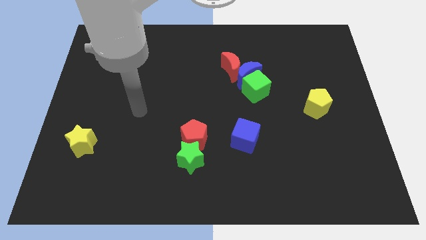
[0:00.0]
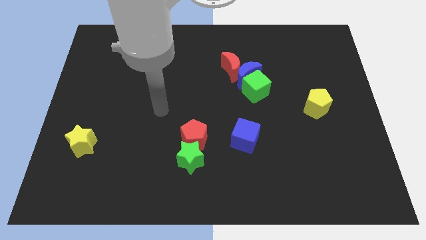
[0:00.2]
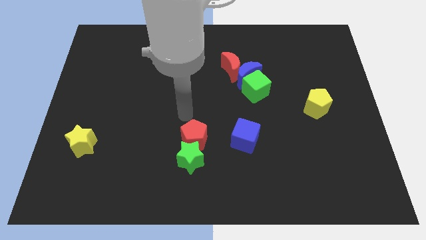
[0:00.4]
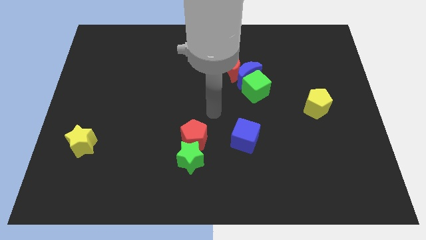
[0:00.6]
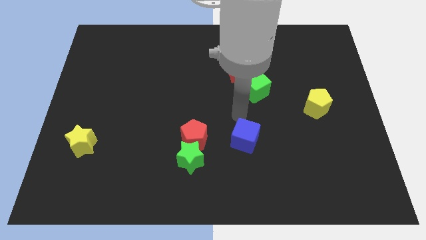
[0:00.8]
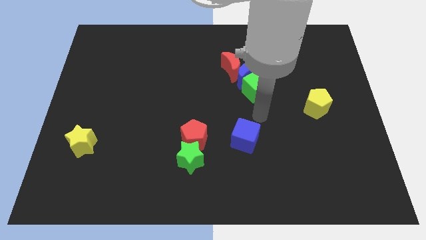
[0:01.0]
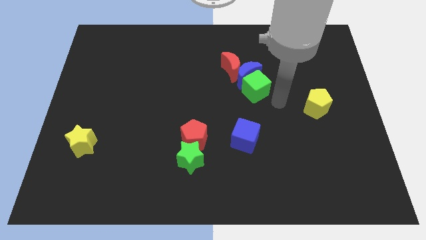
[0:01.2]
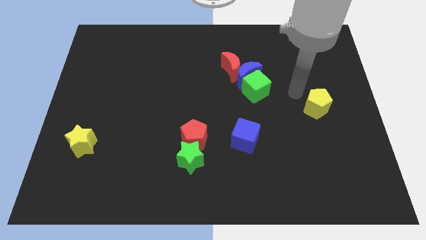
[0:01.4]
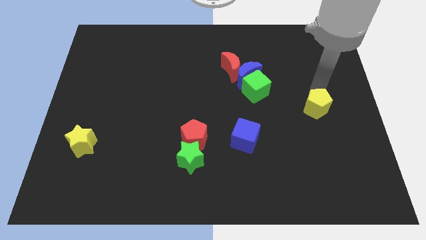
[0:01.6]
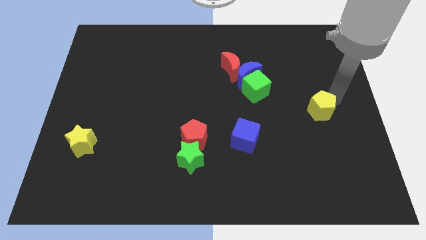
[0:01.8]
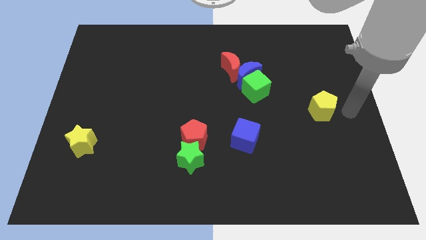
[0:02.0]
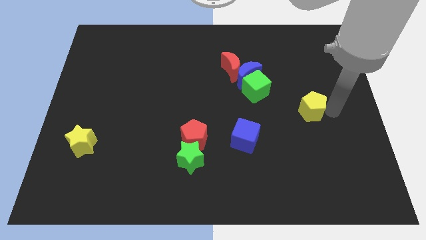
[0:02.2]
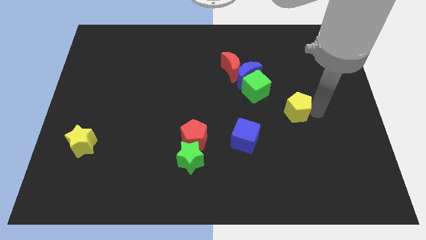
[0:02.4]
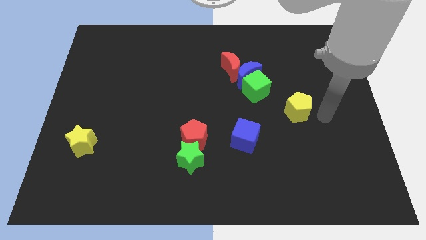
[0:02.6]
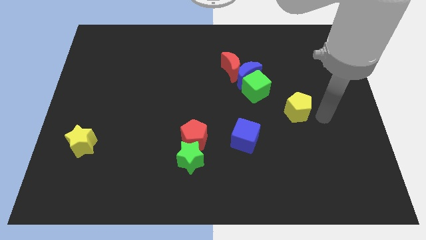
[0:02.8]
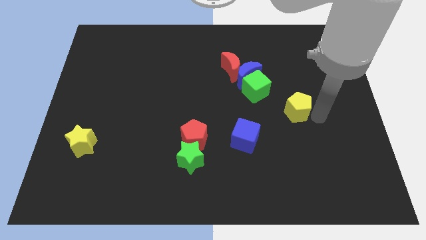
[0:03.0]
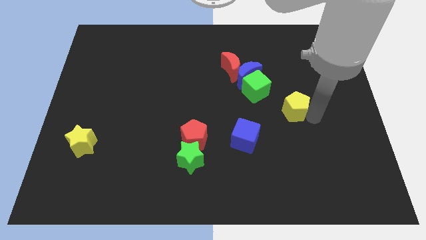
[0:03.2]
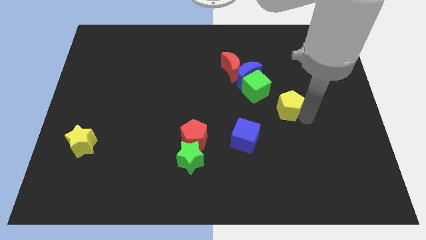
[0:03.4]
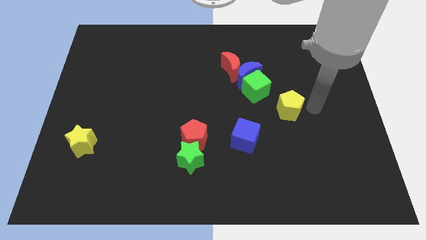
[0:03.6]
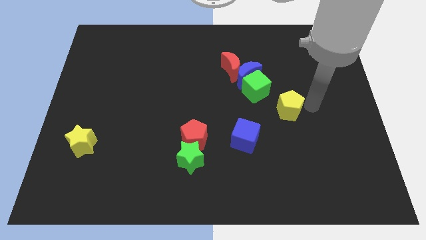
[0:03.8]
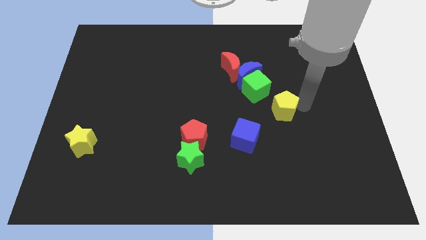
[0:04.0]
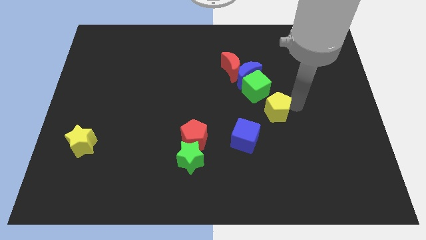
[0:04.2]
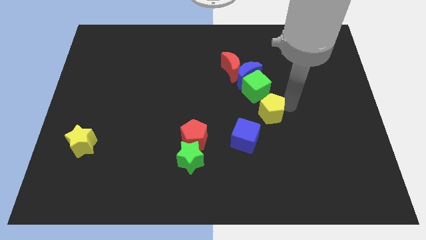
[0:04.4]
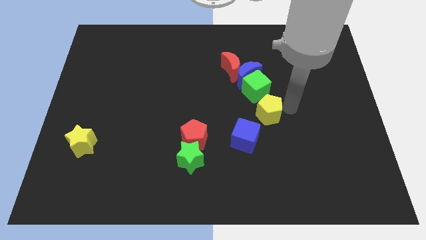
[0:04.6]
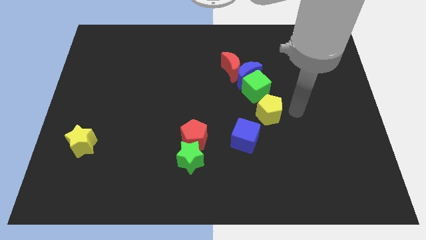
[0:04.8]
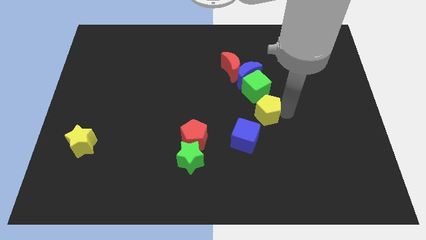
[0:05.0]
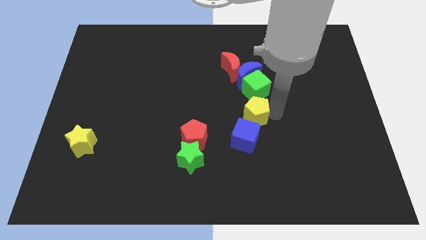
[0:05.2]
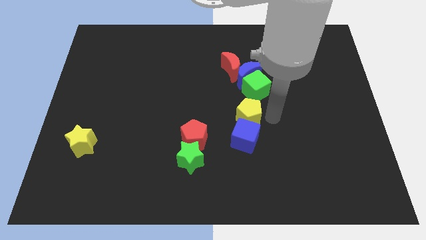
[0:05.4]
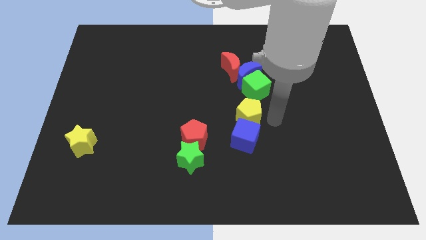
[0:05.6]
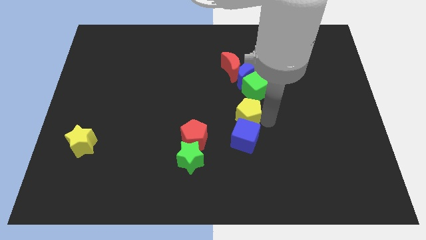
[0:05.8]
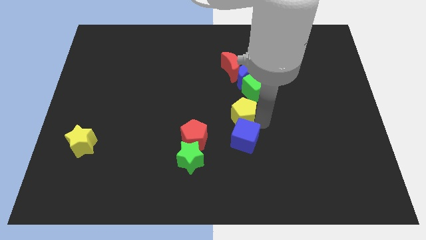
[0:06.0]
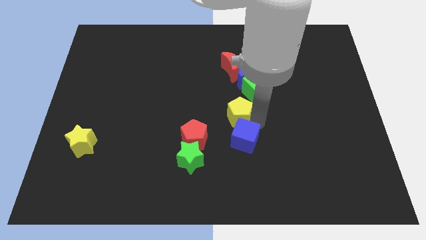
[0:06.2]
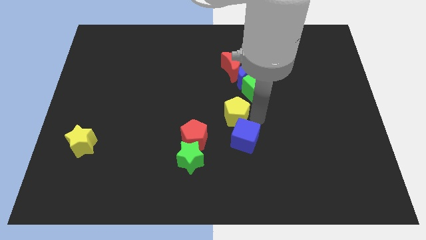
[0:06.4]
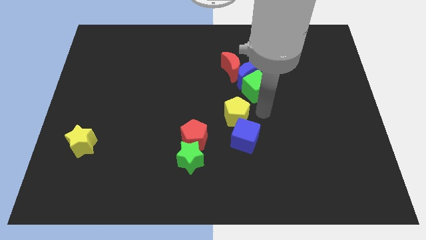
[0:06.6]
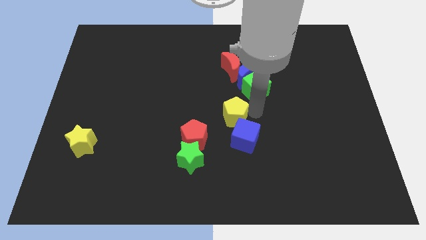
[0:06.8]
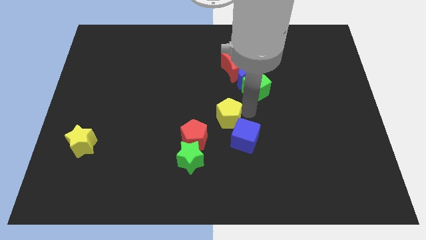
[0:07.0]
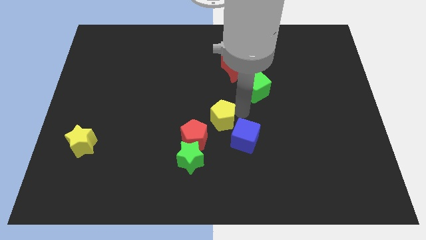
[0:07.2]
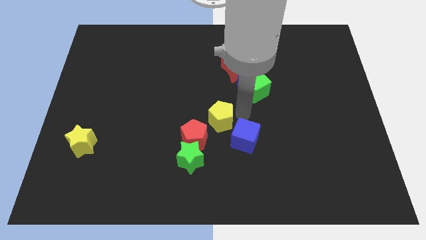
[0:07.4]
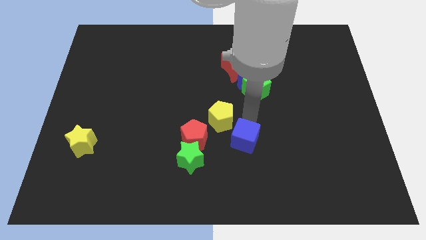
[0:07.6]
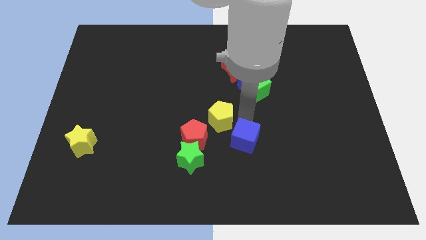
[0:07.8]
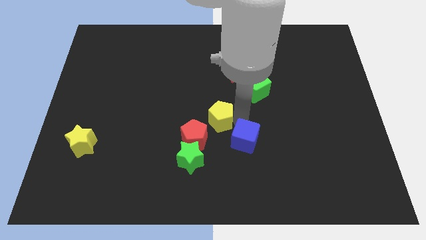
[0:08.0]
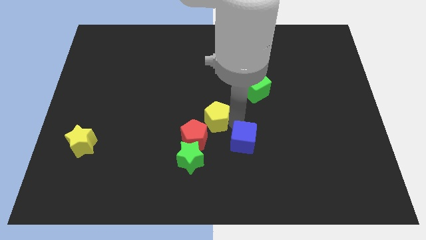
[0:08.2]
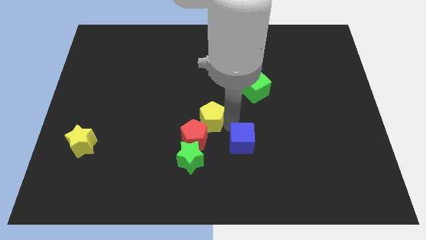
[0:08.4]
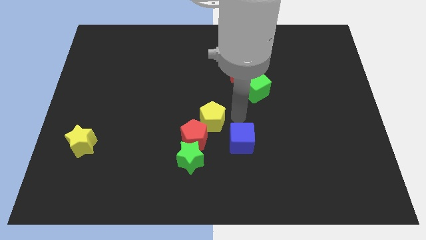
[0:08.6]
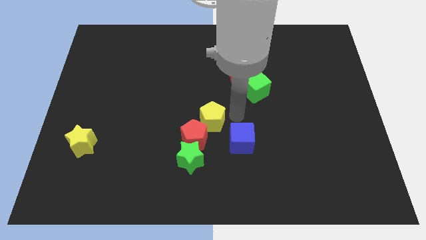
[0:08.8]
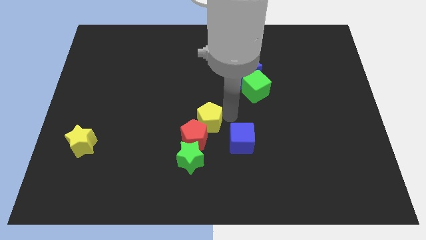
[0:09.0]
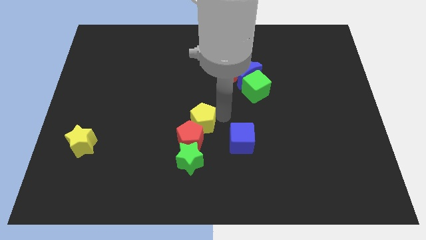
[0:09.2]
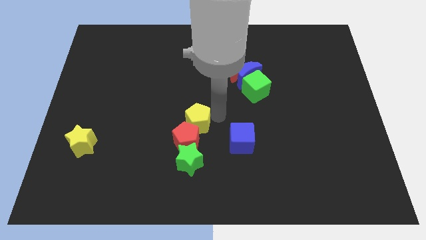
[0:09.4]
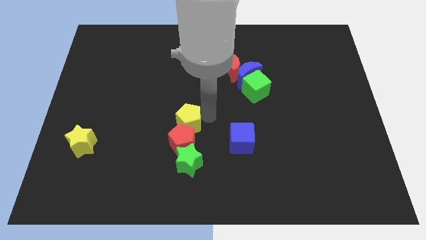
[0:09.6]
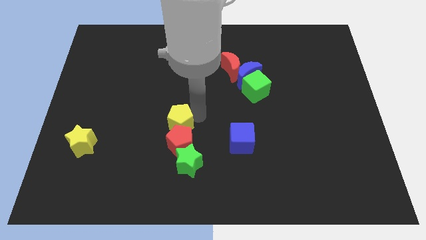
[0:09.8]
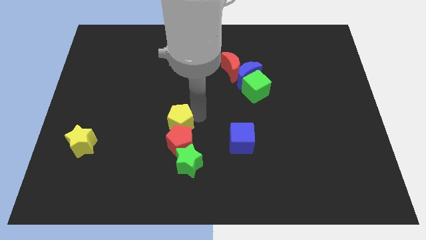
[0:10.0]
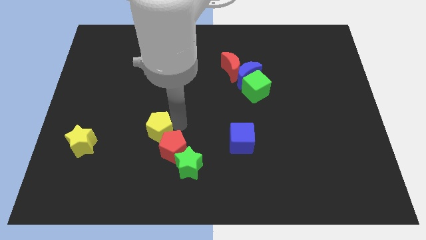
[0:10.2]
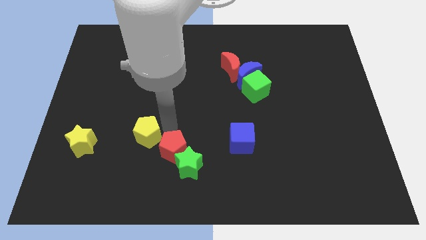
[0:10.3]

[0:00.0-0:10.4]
slide the yellow pentagon to the left side of the red pentagon

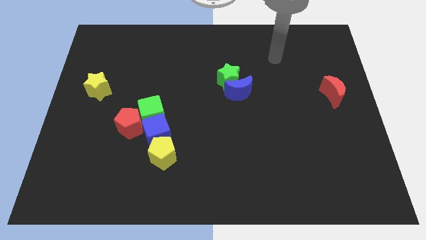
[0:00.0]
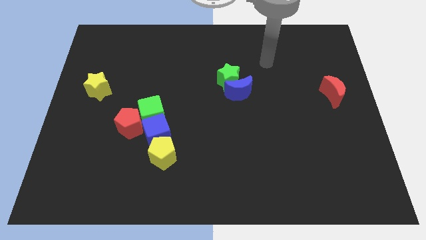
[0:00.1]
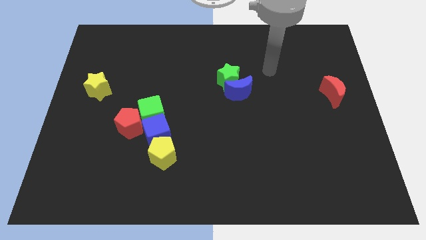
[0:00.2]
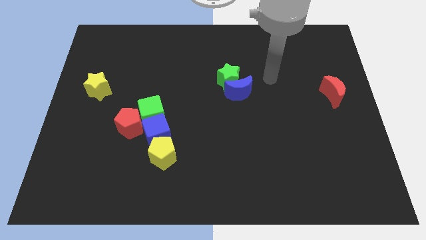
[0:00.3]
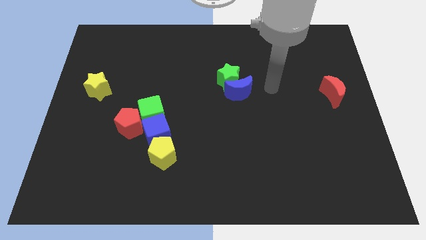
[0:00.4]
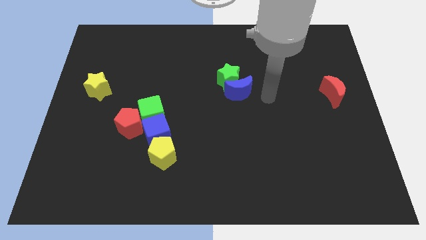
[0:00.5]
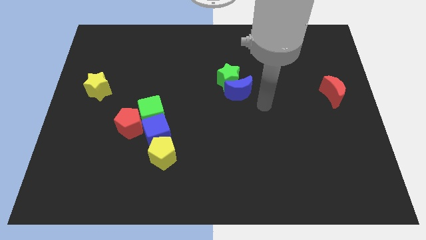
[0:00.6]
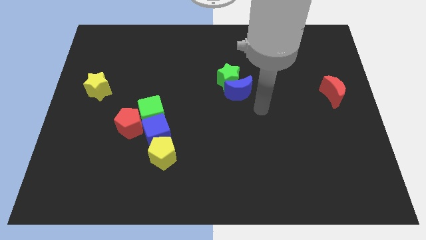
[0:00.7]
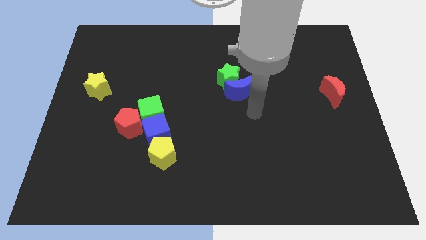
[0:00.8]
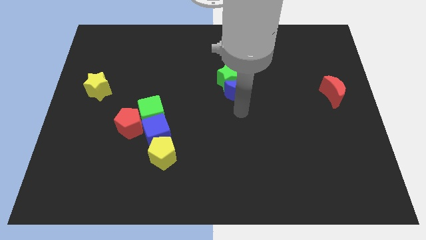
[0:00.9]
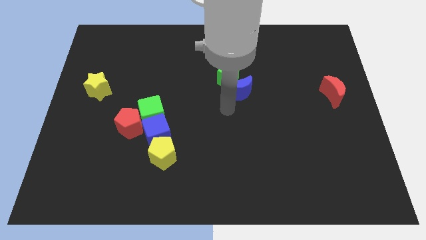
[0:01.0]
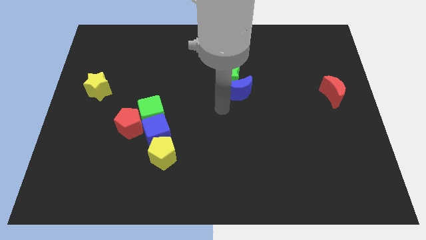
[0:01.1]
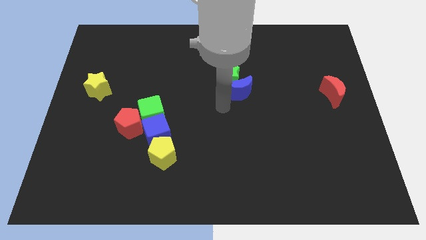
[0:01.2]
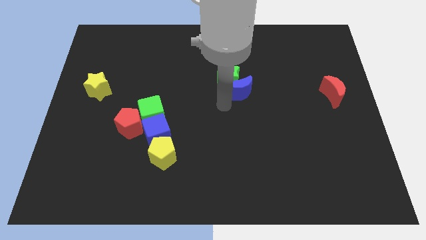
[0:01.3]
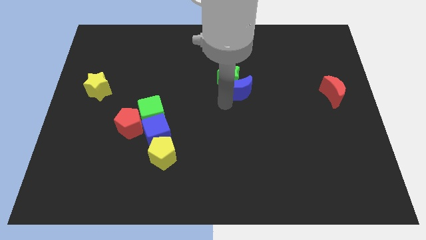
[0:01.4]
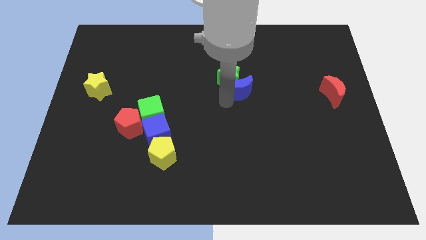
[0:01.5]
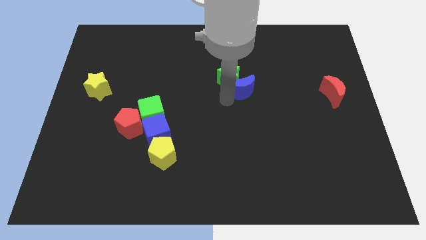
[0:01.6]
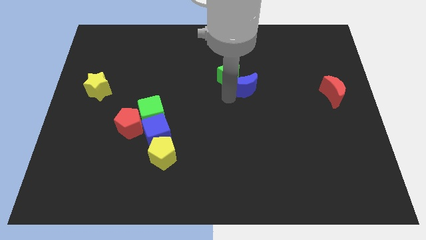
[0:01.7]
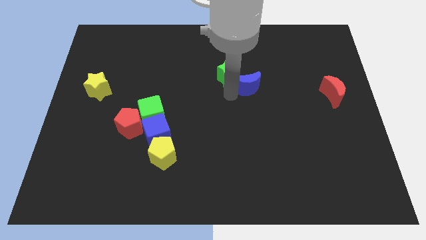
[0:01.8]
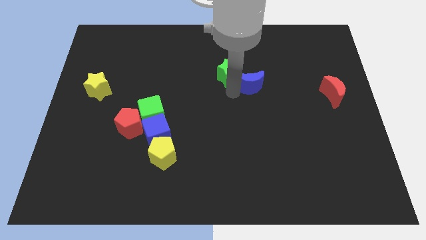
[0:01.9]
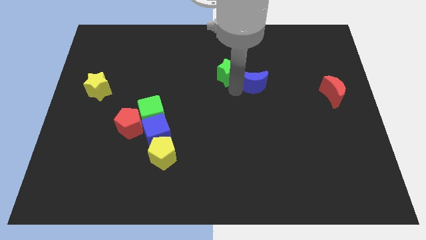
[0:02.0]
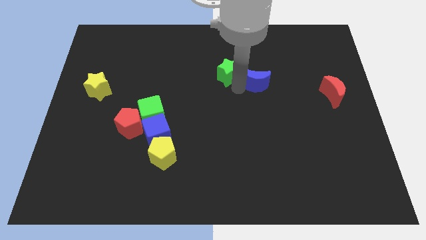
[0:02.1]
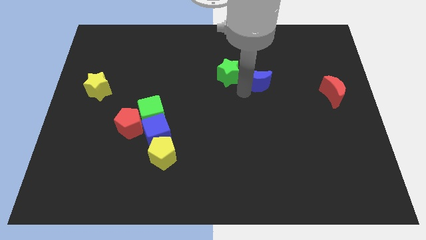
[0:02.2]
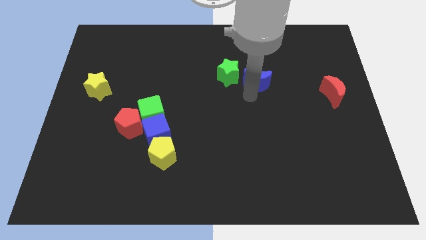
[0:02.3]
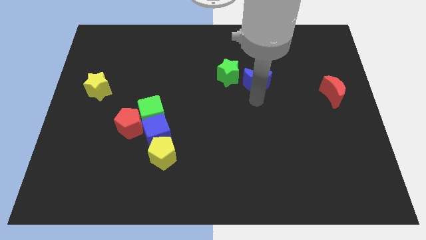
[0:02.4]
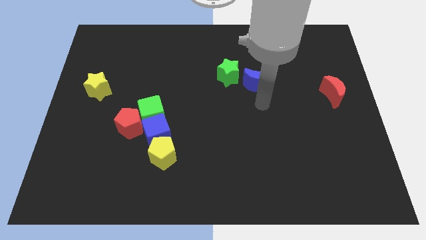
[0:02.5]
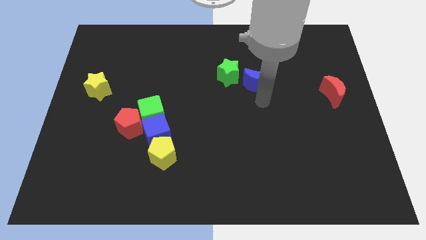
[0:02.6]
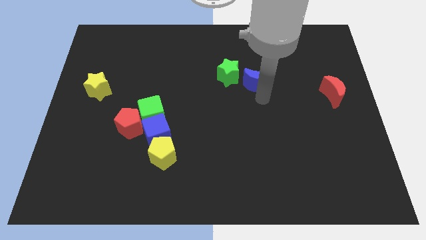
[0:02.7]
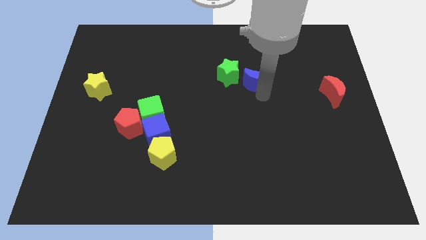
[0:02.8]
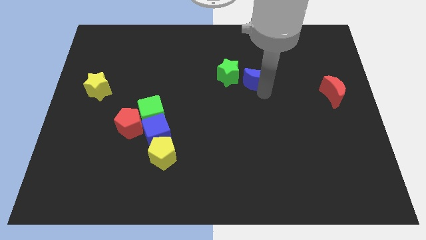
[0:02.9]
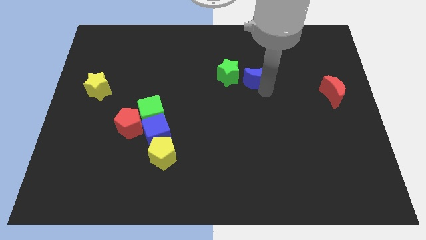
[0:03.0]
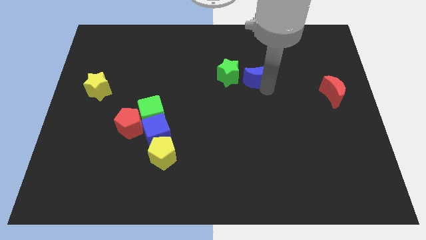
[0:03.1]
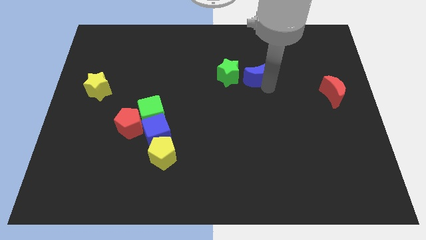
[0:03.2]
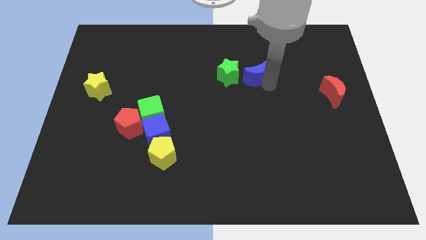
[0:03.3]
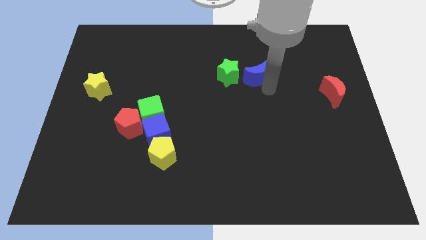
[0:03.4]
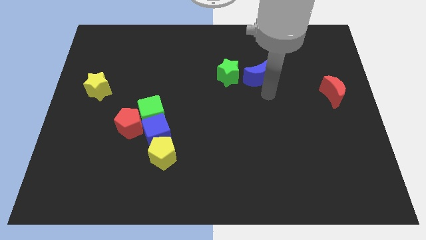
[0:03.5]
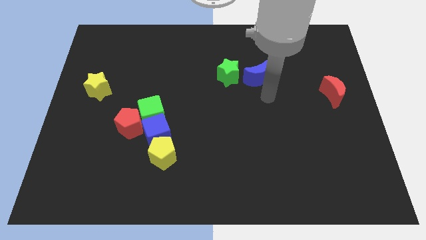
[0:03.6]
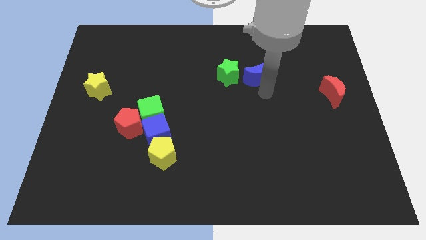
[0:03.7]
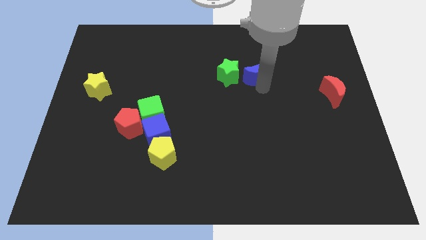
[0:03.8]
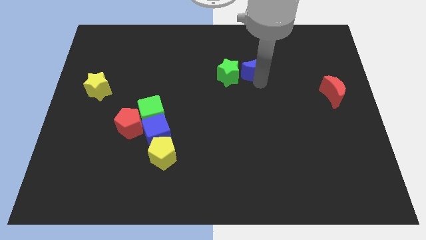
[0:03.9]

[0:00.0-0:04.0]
move the blue moon to the top right of the green star
